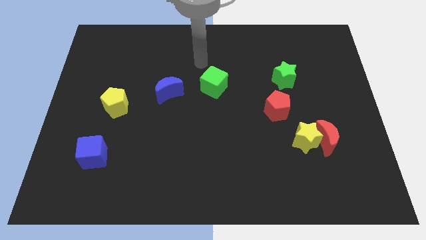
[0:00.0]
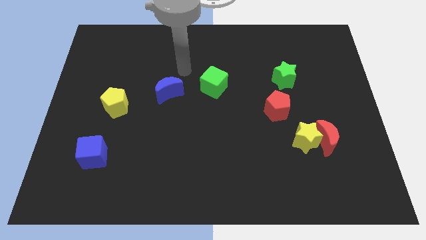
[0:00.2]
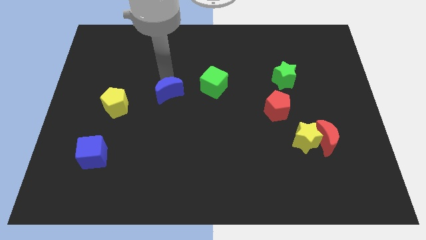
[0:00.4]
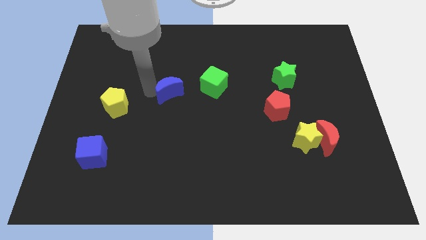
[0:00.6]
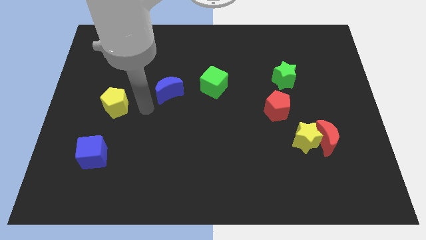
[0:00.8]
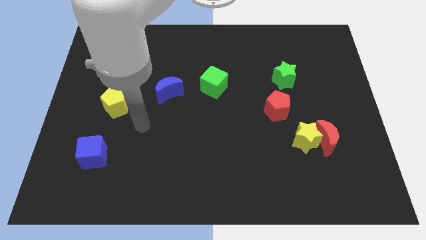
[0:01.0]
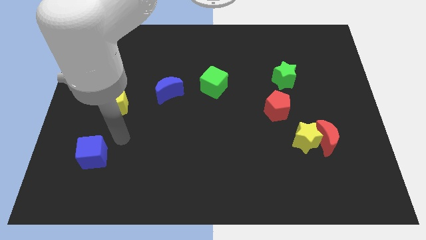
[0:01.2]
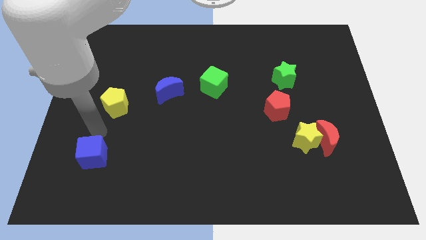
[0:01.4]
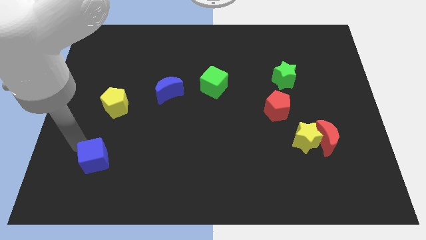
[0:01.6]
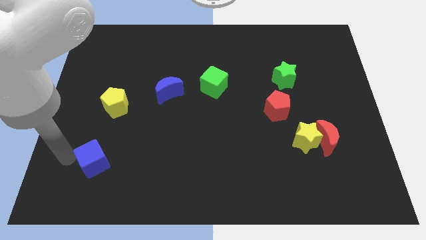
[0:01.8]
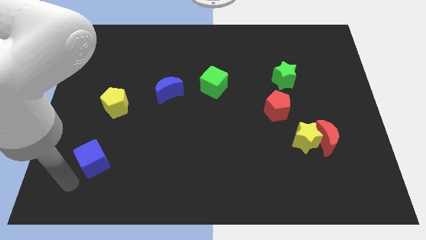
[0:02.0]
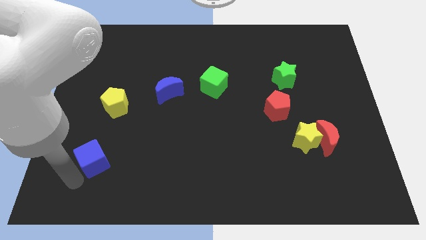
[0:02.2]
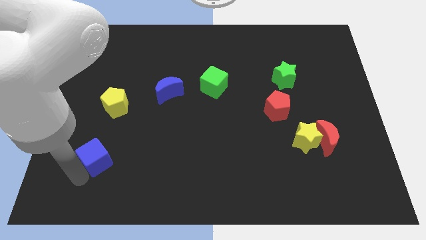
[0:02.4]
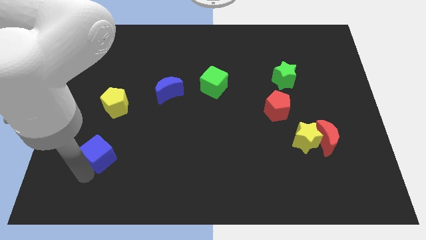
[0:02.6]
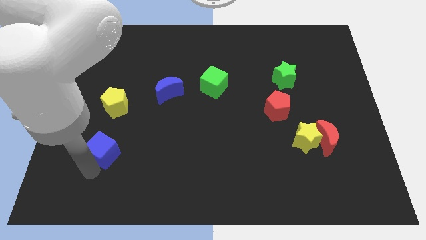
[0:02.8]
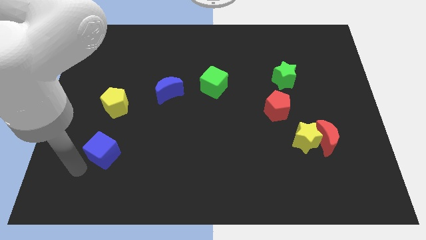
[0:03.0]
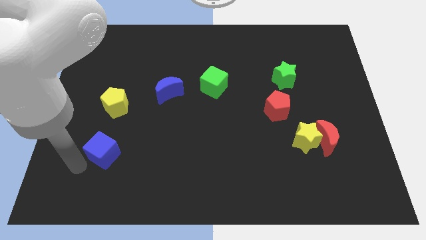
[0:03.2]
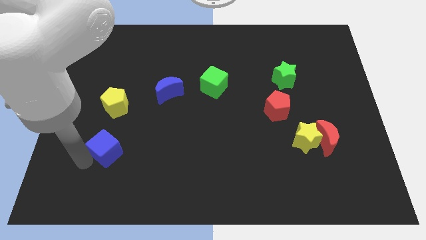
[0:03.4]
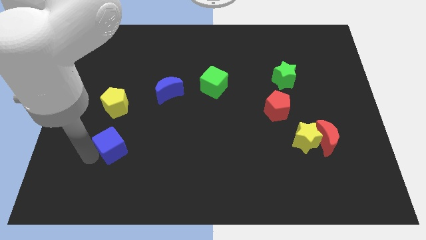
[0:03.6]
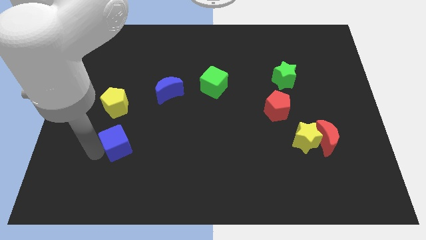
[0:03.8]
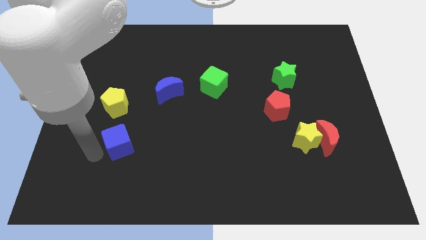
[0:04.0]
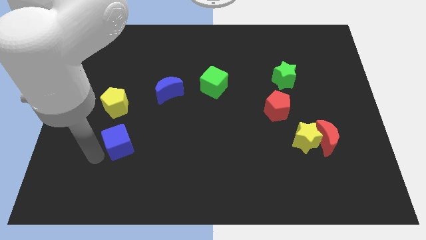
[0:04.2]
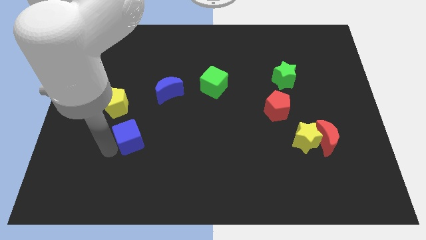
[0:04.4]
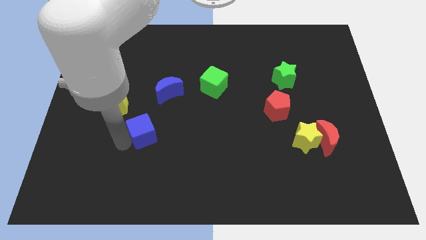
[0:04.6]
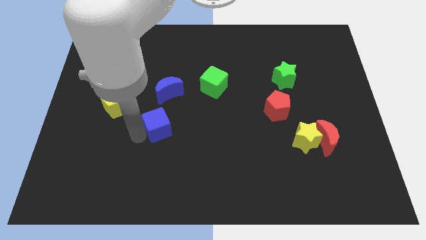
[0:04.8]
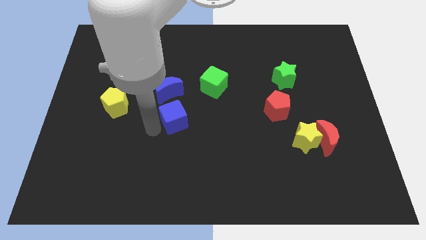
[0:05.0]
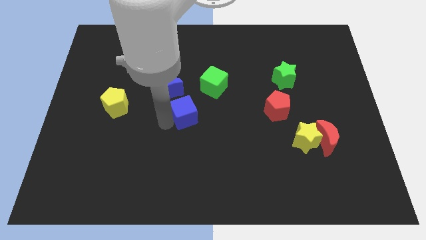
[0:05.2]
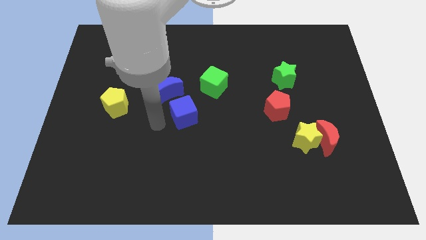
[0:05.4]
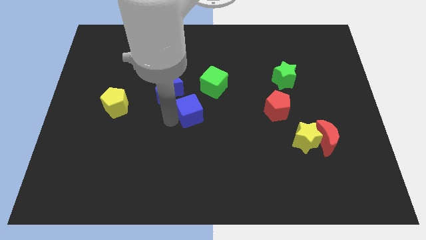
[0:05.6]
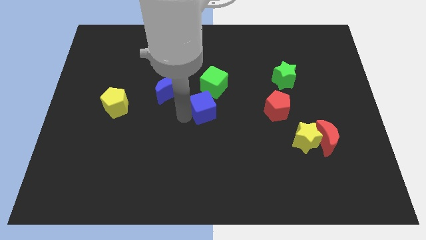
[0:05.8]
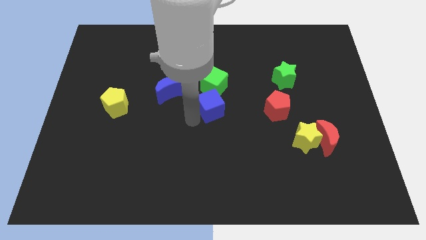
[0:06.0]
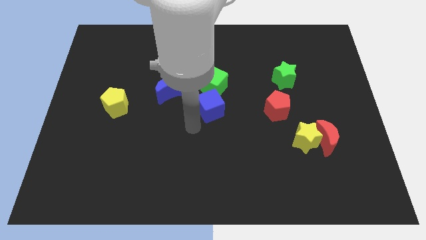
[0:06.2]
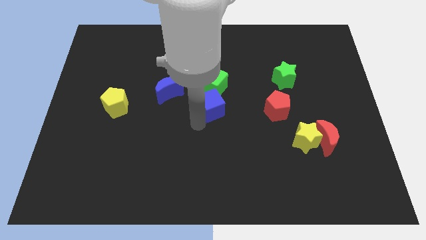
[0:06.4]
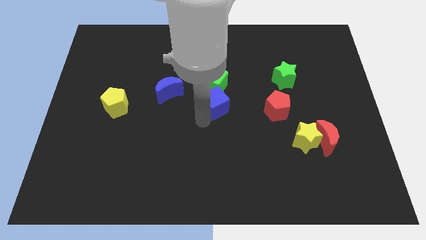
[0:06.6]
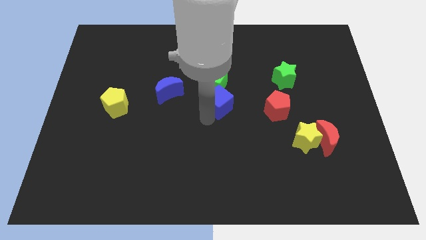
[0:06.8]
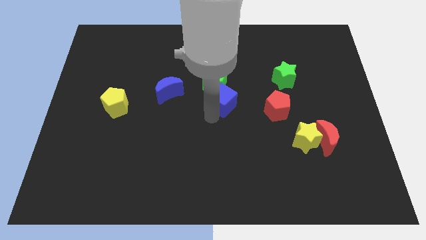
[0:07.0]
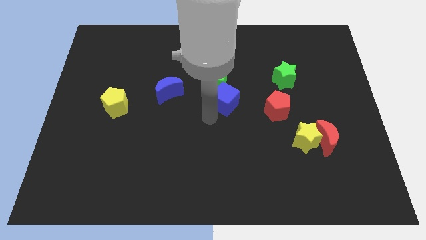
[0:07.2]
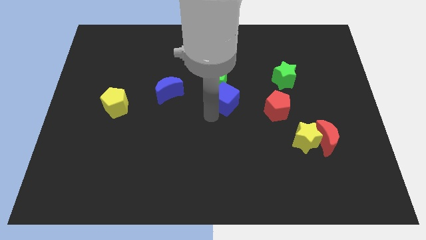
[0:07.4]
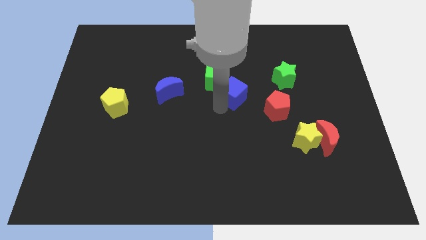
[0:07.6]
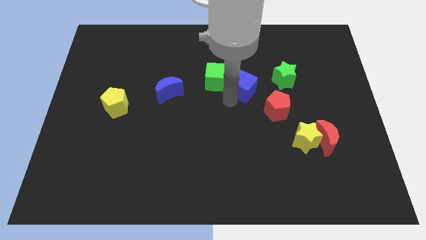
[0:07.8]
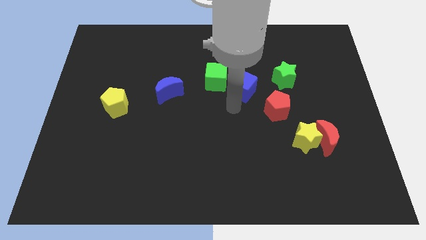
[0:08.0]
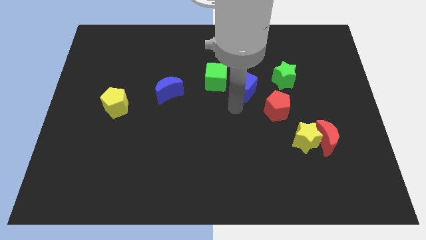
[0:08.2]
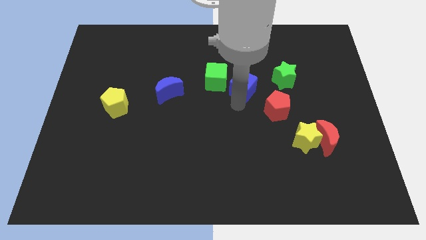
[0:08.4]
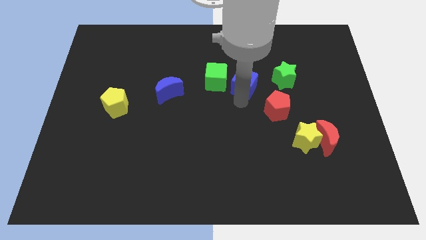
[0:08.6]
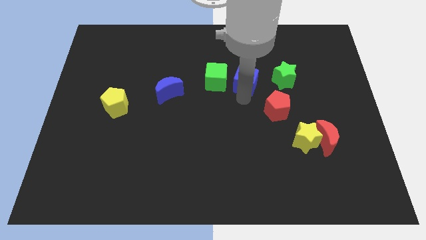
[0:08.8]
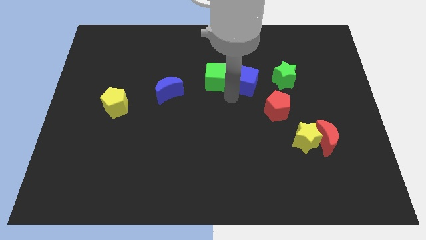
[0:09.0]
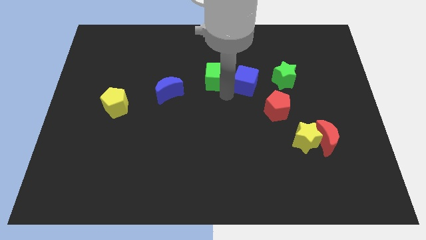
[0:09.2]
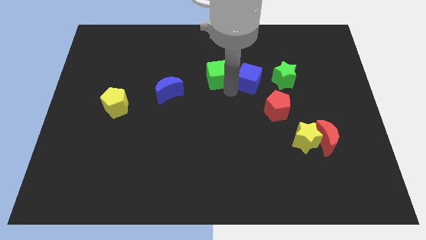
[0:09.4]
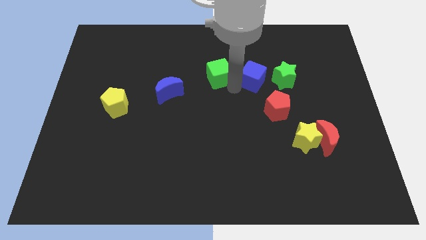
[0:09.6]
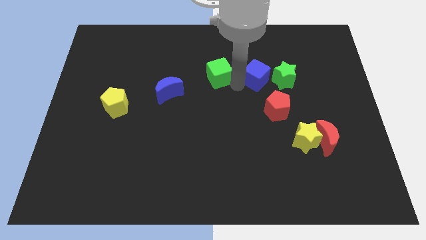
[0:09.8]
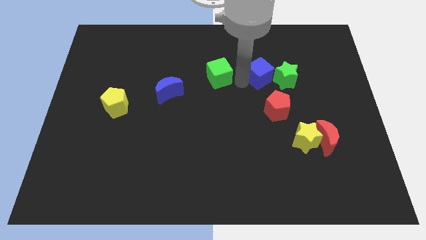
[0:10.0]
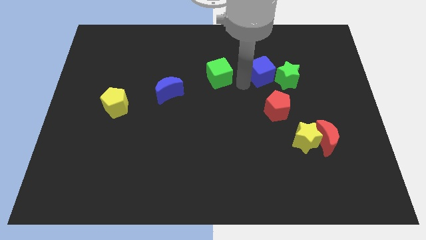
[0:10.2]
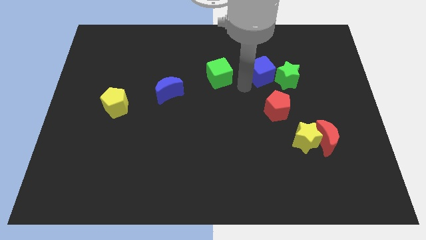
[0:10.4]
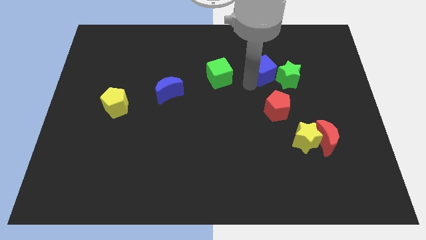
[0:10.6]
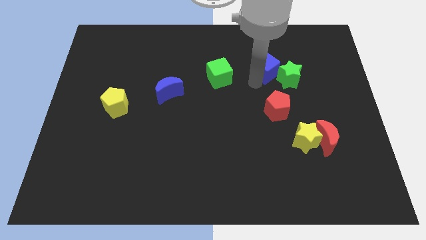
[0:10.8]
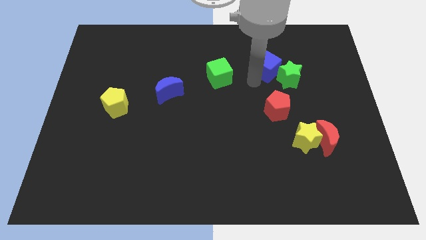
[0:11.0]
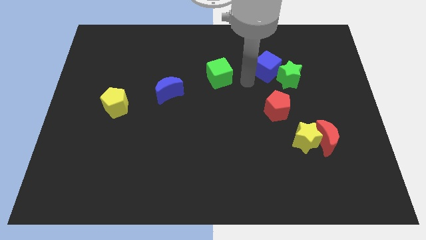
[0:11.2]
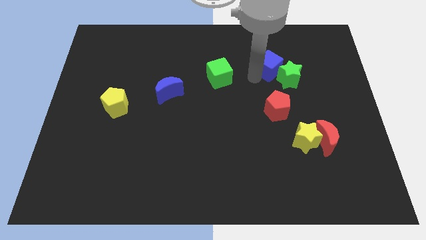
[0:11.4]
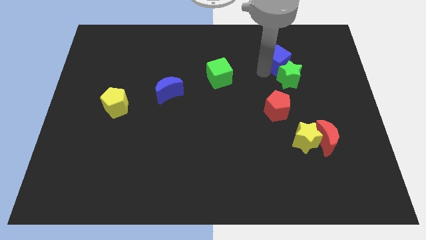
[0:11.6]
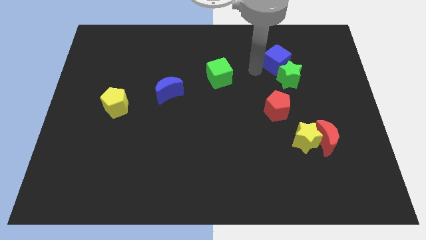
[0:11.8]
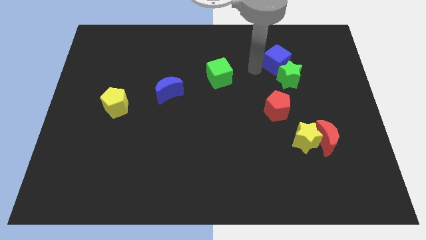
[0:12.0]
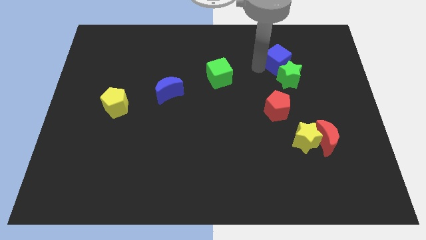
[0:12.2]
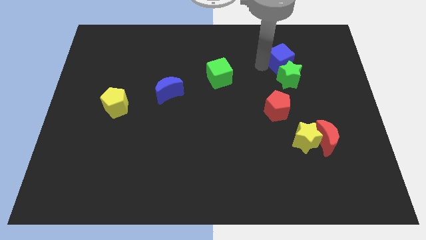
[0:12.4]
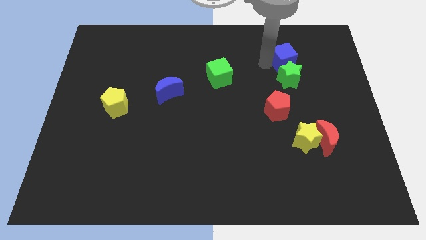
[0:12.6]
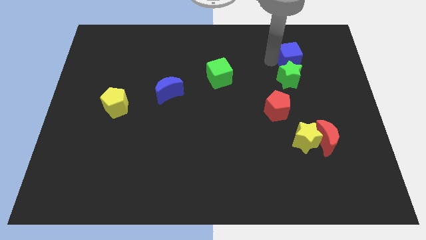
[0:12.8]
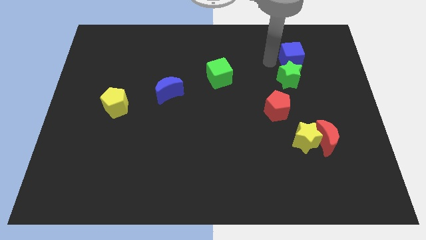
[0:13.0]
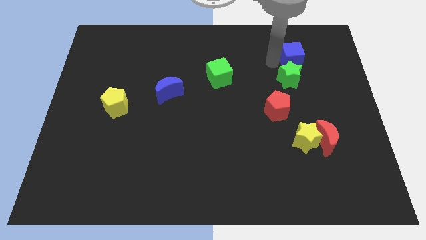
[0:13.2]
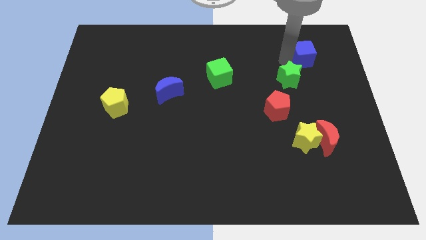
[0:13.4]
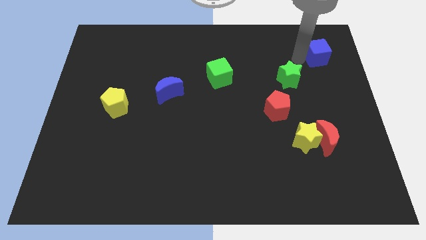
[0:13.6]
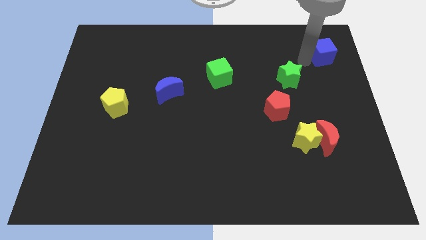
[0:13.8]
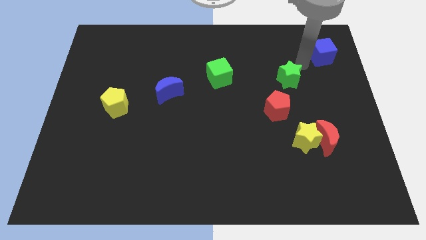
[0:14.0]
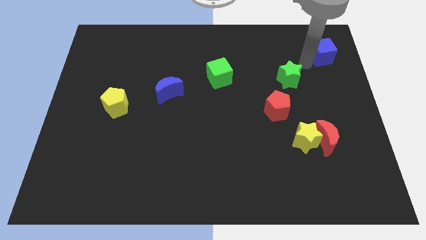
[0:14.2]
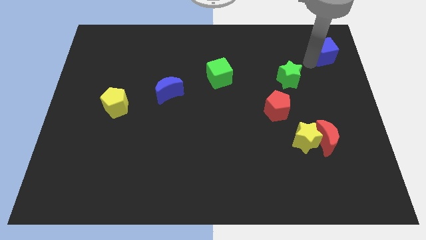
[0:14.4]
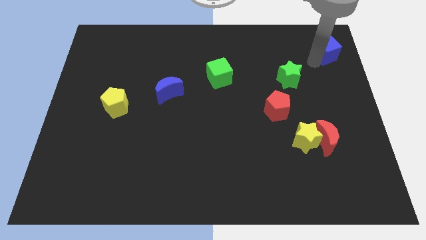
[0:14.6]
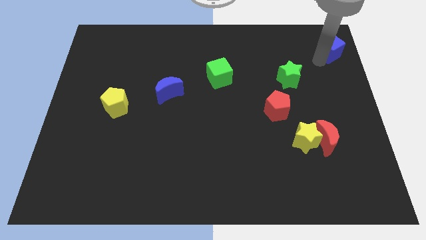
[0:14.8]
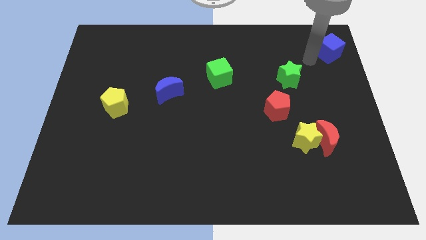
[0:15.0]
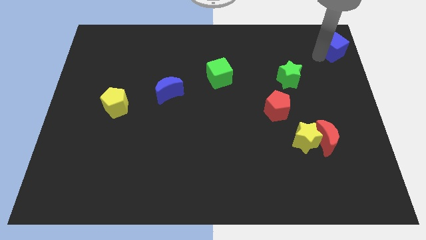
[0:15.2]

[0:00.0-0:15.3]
push the blue cube to the top right of the board
